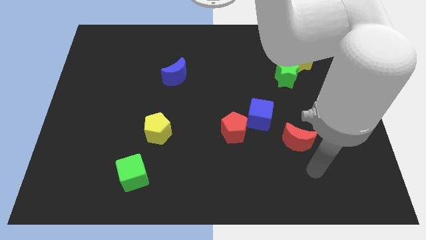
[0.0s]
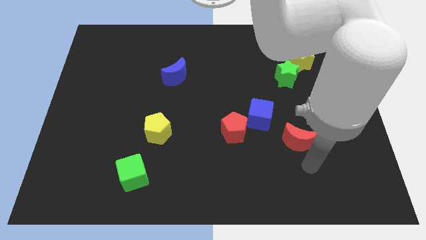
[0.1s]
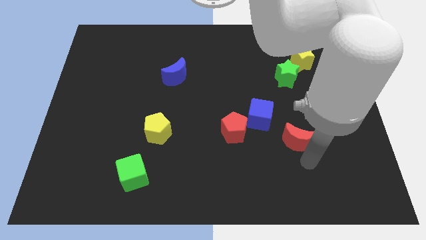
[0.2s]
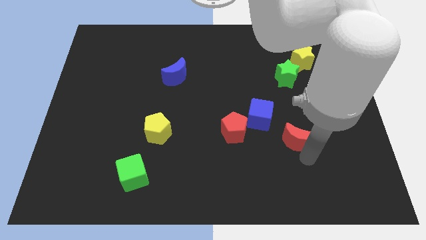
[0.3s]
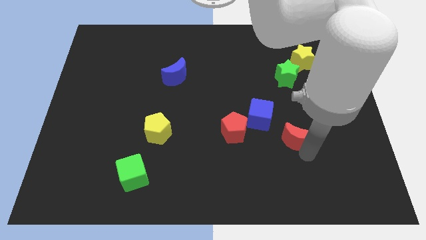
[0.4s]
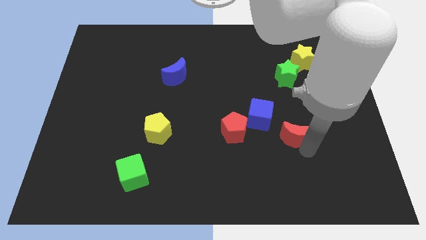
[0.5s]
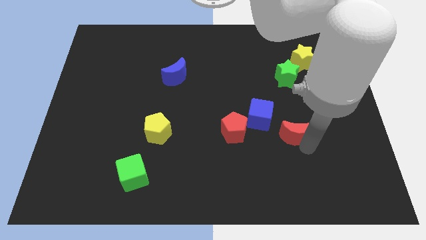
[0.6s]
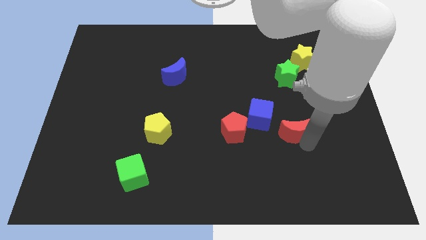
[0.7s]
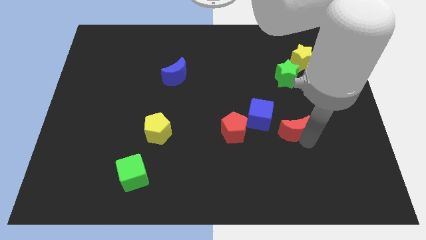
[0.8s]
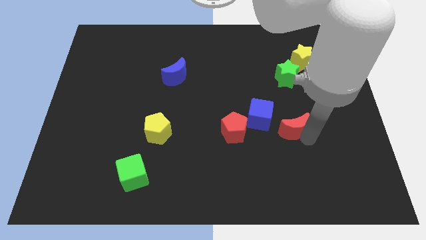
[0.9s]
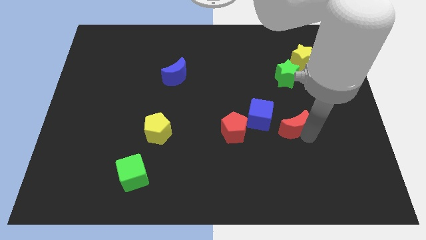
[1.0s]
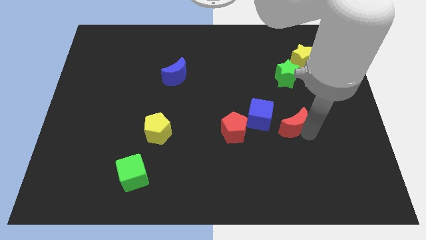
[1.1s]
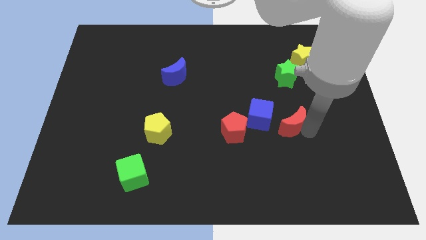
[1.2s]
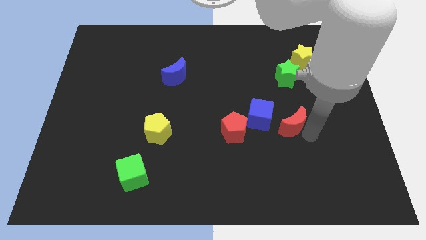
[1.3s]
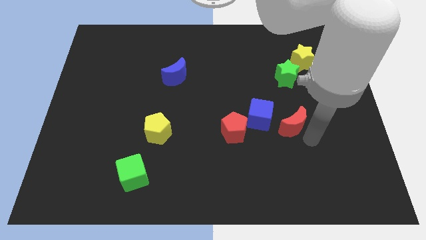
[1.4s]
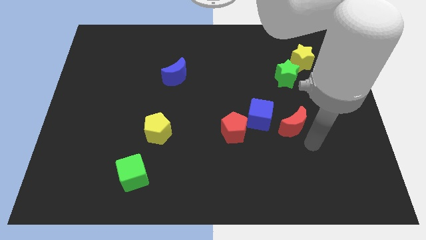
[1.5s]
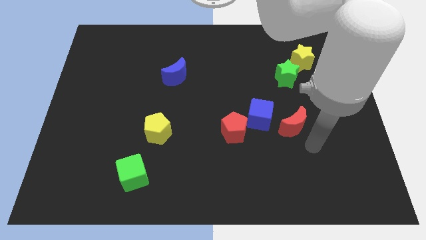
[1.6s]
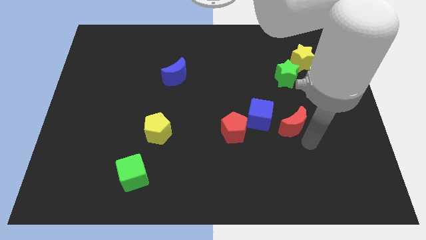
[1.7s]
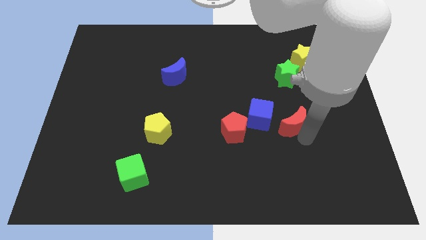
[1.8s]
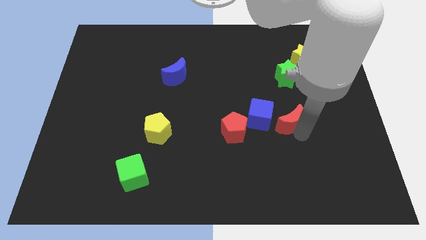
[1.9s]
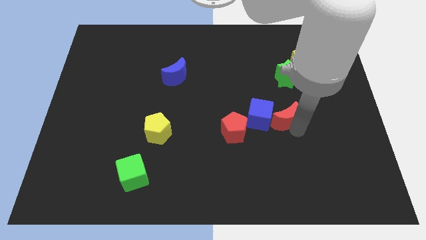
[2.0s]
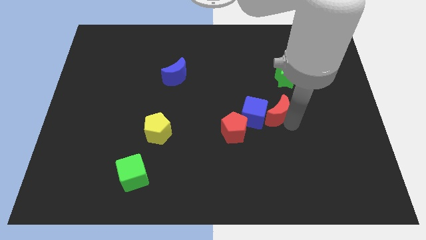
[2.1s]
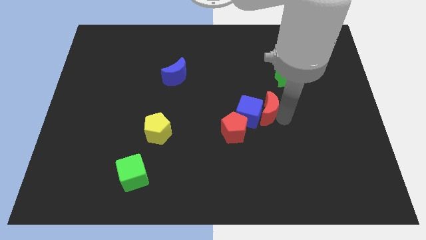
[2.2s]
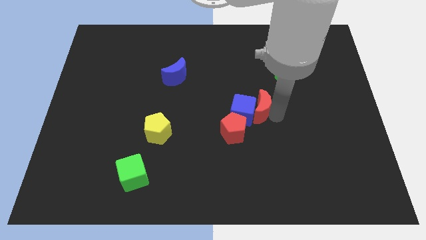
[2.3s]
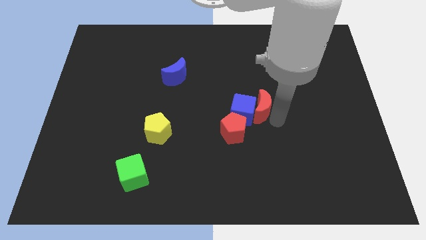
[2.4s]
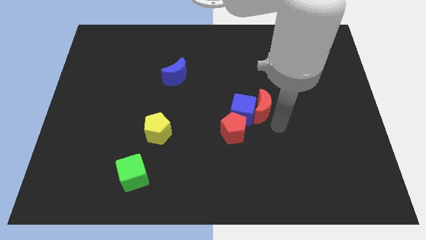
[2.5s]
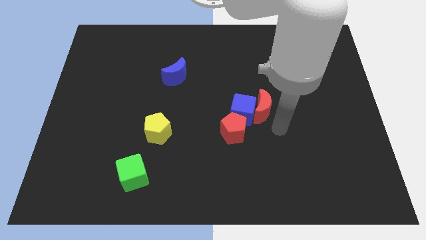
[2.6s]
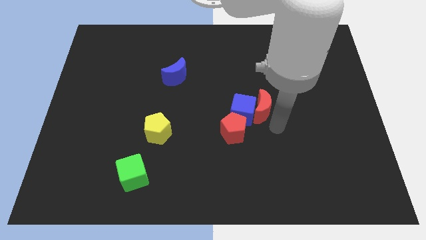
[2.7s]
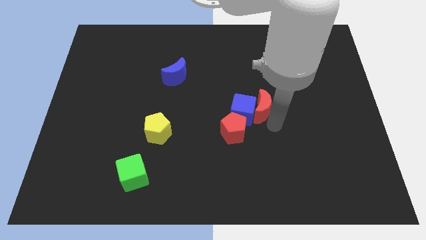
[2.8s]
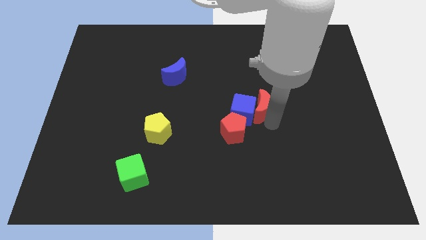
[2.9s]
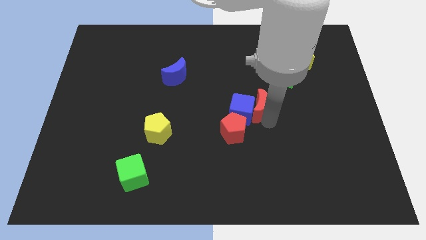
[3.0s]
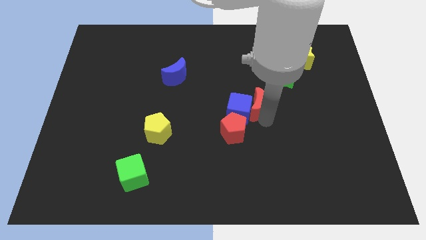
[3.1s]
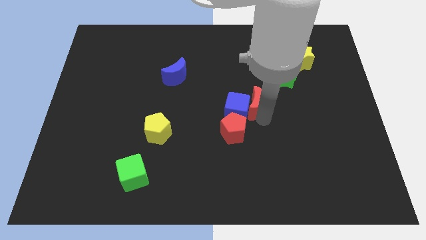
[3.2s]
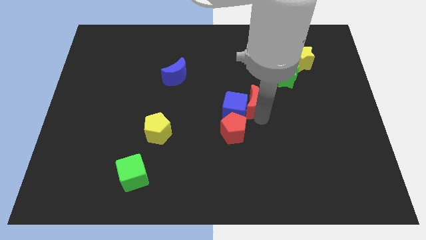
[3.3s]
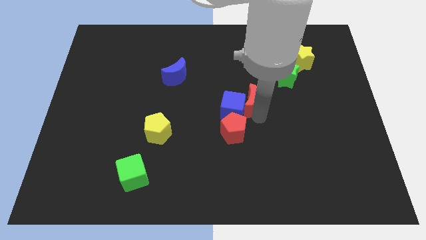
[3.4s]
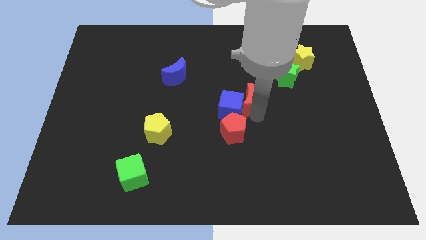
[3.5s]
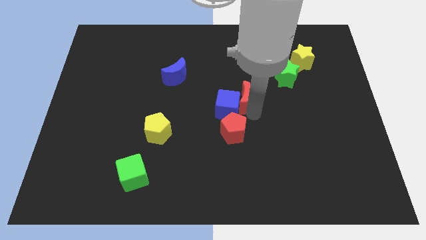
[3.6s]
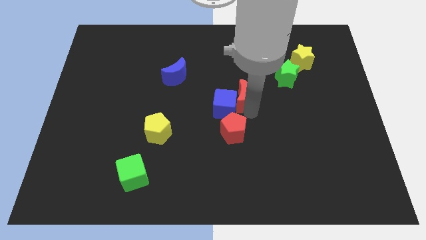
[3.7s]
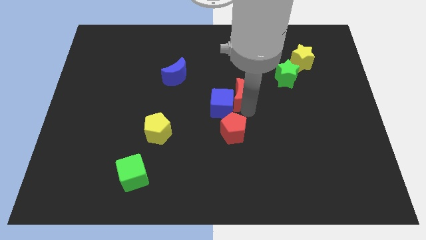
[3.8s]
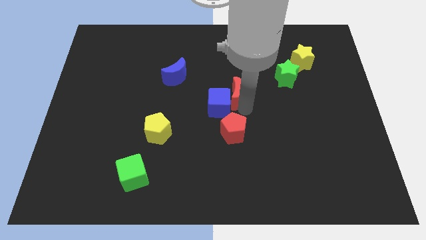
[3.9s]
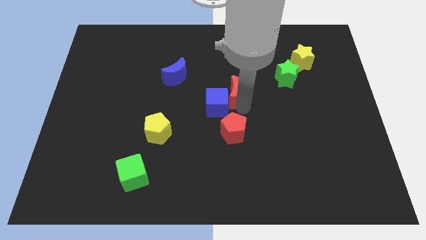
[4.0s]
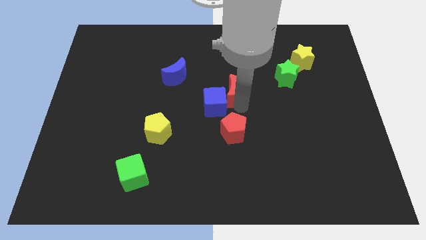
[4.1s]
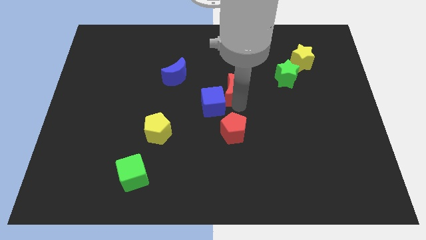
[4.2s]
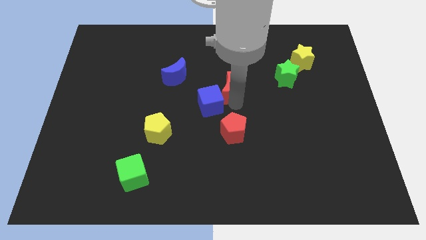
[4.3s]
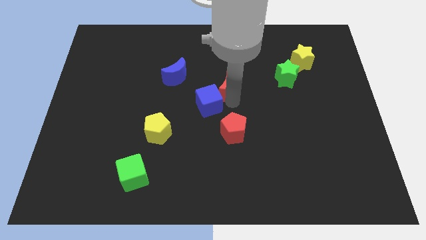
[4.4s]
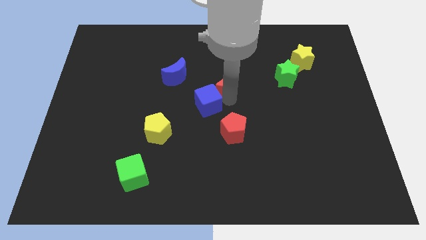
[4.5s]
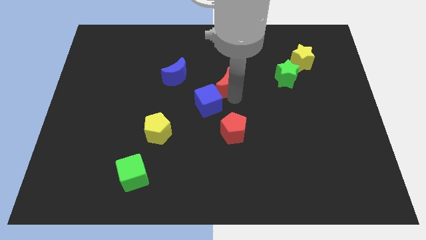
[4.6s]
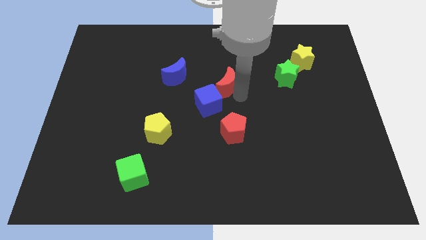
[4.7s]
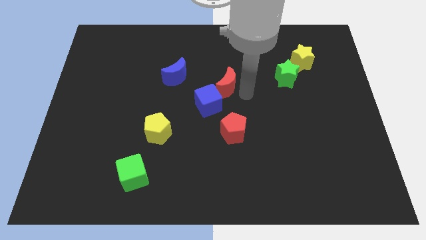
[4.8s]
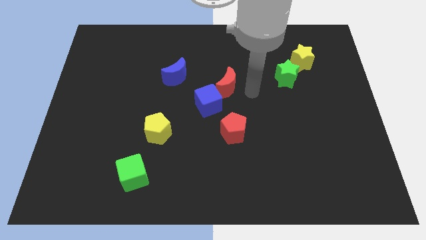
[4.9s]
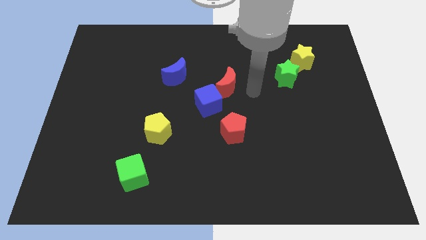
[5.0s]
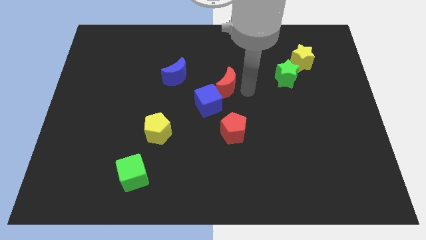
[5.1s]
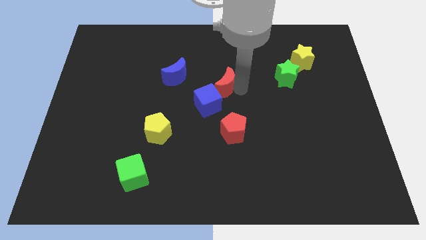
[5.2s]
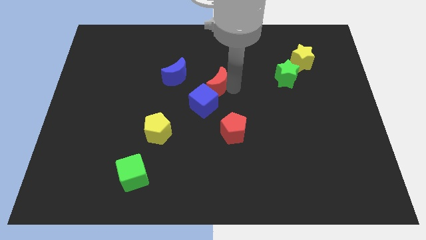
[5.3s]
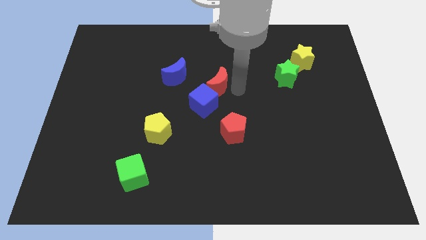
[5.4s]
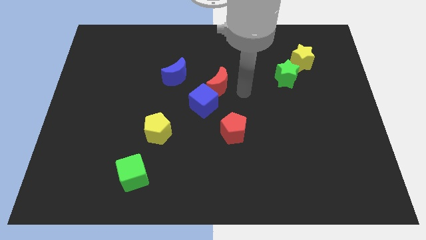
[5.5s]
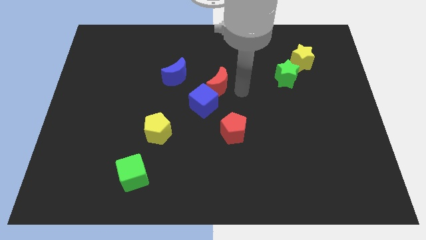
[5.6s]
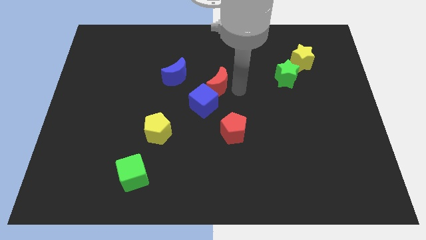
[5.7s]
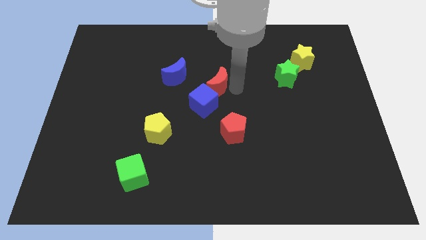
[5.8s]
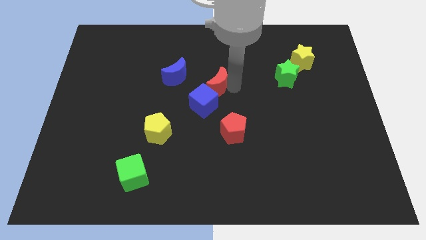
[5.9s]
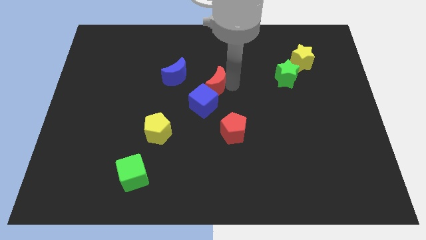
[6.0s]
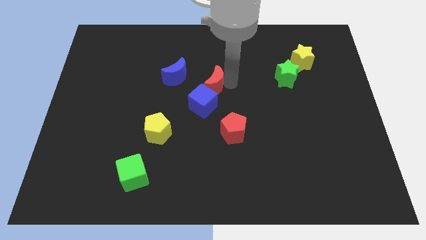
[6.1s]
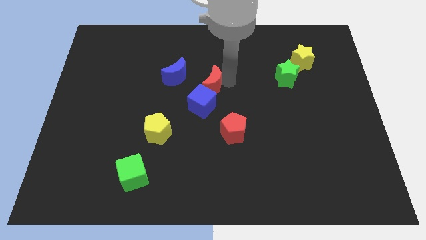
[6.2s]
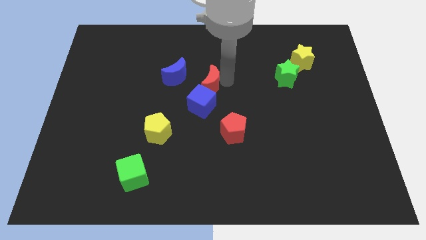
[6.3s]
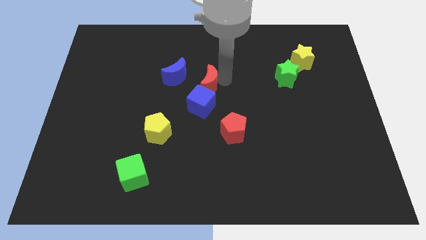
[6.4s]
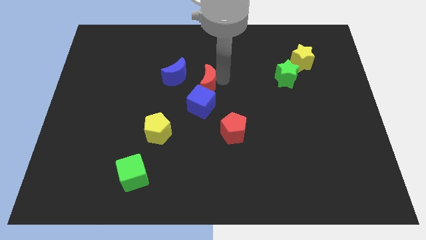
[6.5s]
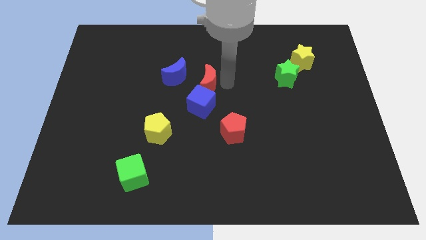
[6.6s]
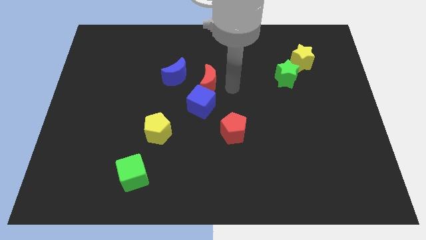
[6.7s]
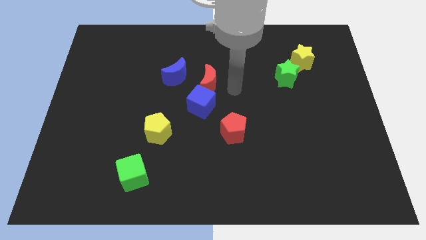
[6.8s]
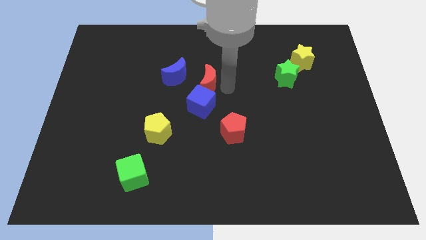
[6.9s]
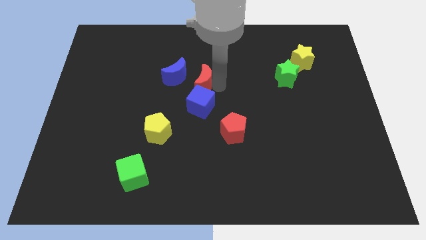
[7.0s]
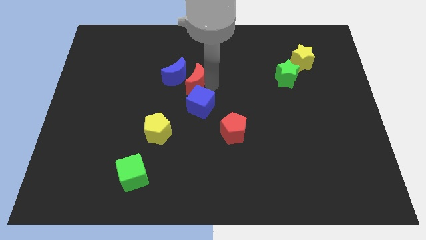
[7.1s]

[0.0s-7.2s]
slide the red moon next to the blue moon

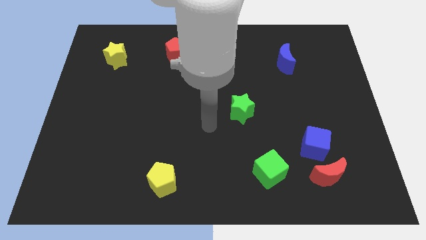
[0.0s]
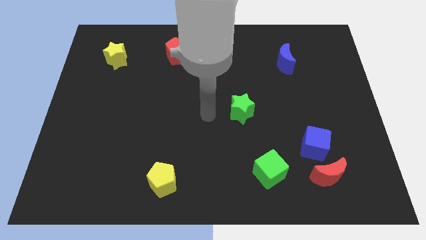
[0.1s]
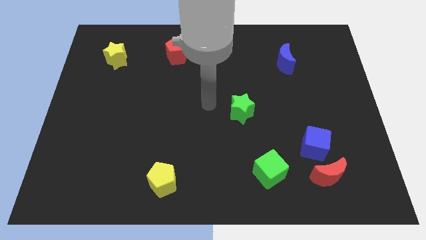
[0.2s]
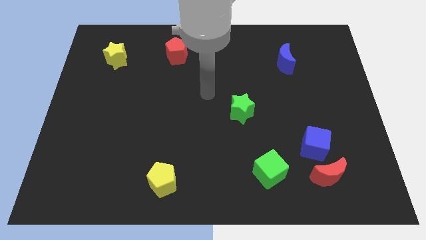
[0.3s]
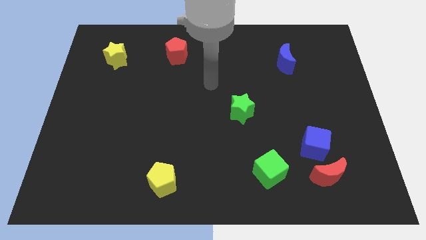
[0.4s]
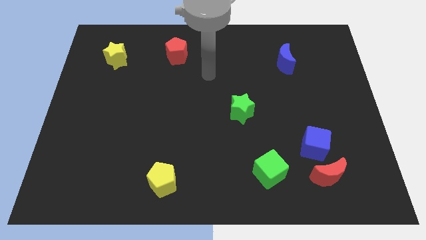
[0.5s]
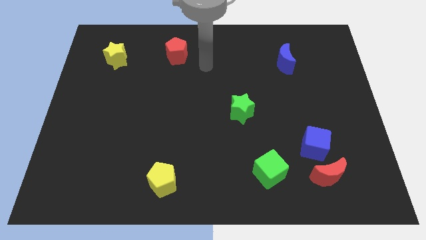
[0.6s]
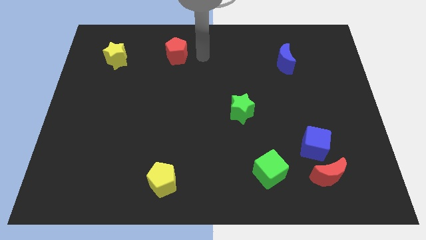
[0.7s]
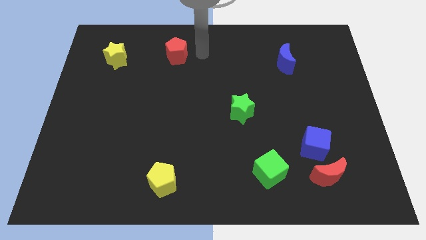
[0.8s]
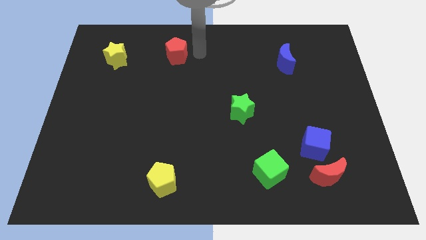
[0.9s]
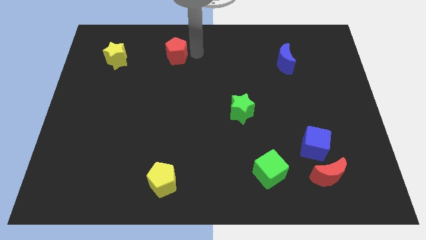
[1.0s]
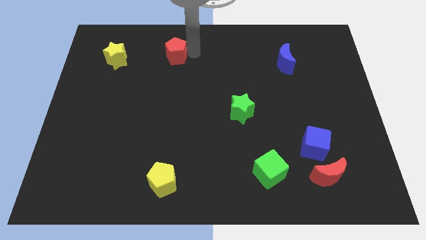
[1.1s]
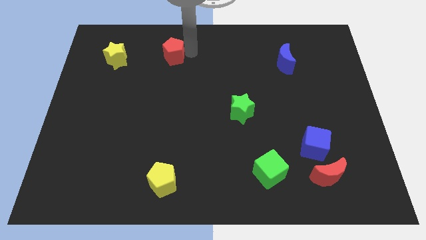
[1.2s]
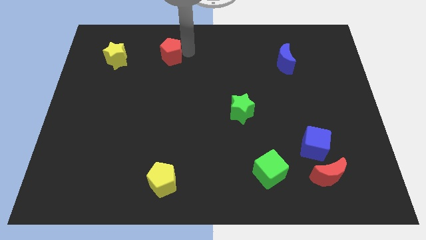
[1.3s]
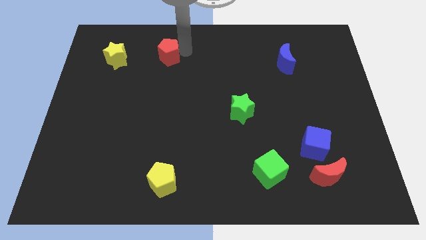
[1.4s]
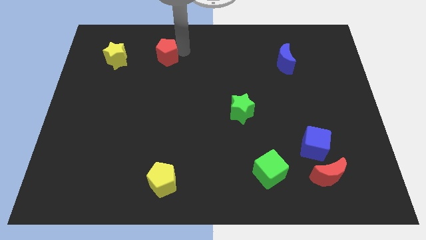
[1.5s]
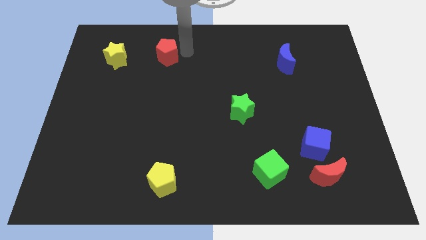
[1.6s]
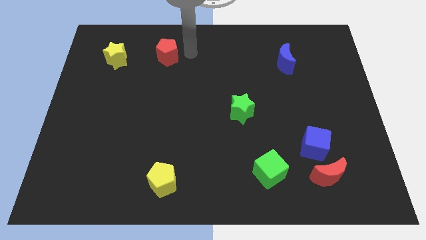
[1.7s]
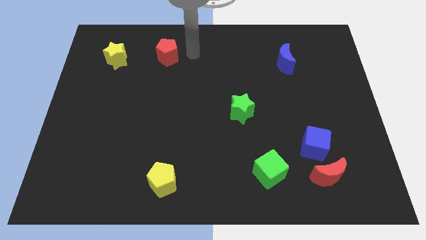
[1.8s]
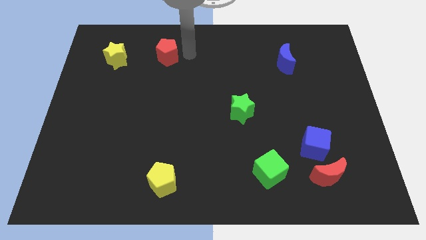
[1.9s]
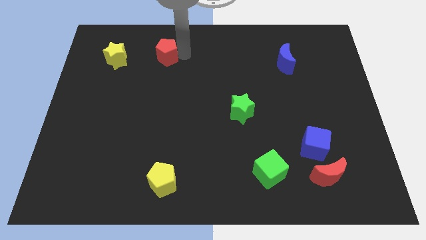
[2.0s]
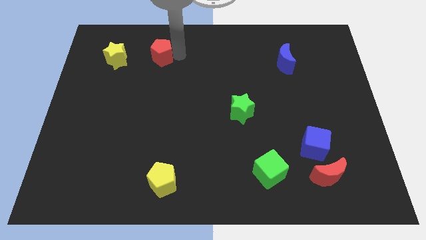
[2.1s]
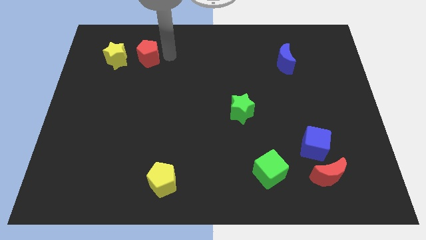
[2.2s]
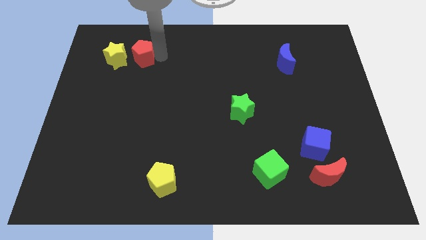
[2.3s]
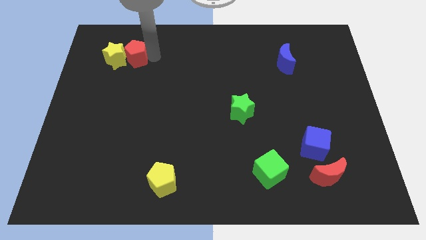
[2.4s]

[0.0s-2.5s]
slide the red pentagon towards the yellow star
